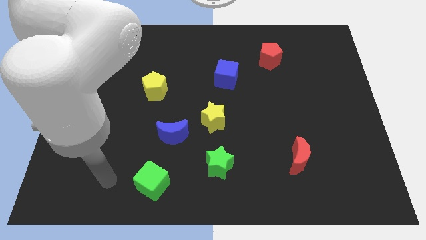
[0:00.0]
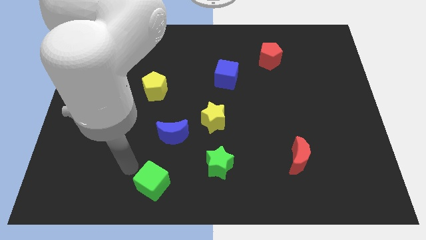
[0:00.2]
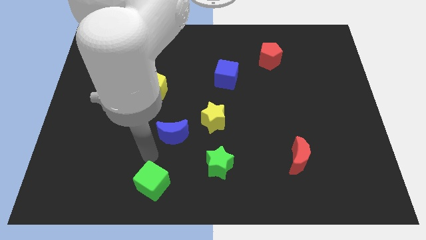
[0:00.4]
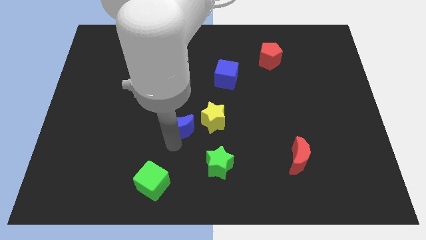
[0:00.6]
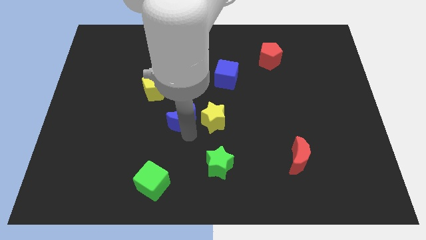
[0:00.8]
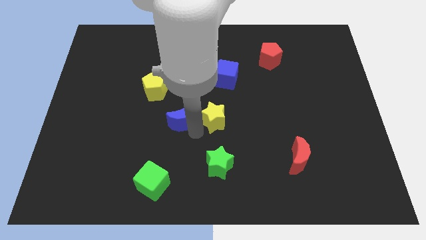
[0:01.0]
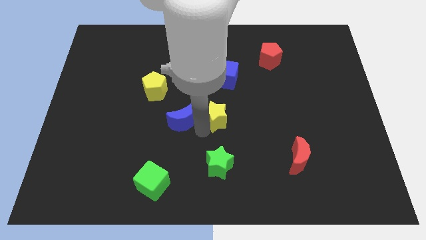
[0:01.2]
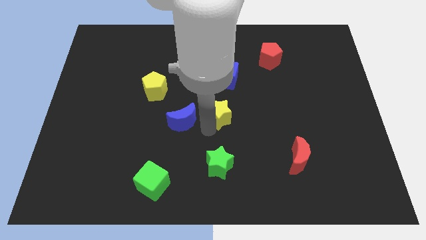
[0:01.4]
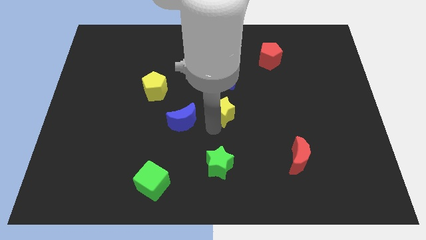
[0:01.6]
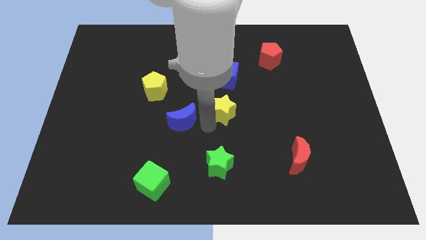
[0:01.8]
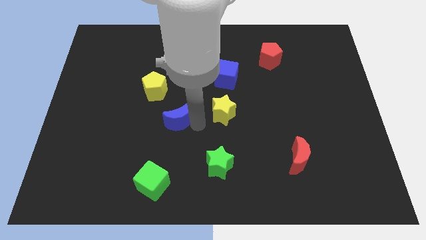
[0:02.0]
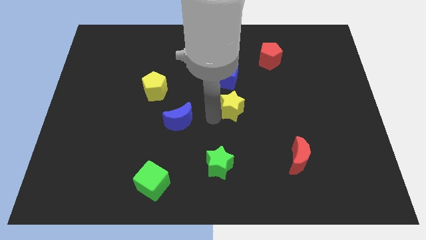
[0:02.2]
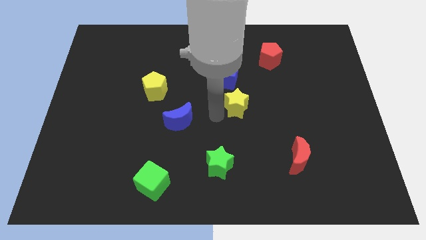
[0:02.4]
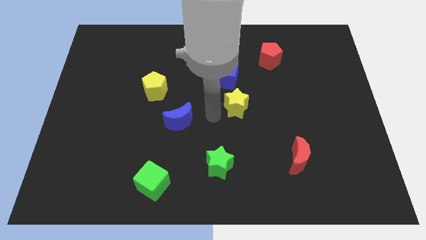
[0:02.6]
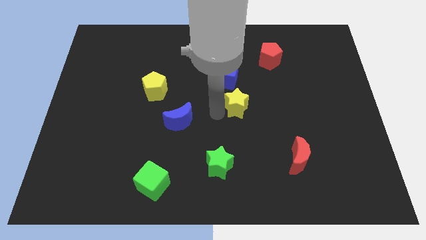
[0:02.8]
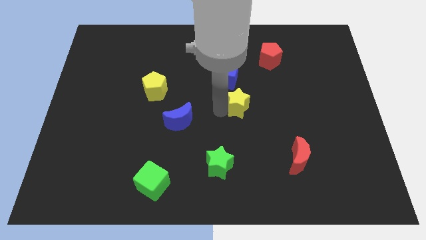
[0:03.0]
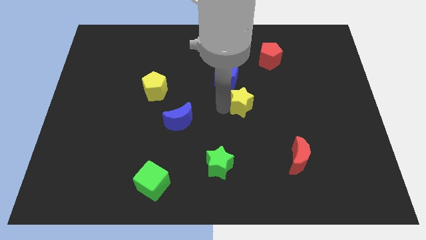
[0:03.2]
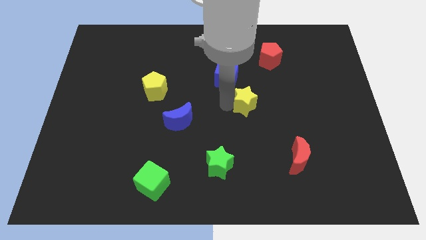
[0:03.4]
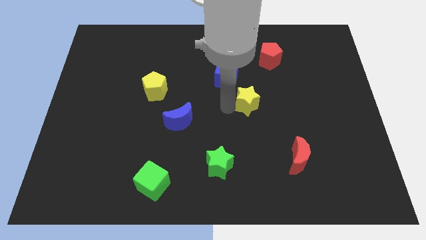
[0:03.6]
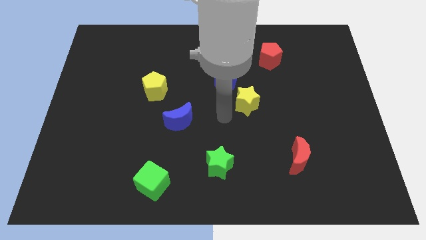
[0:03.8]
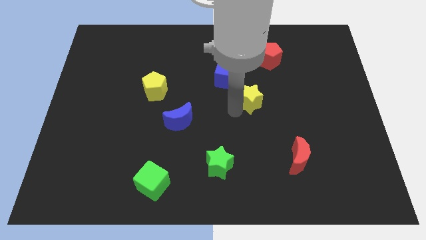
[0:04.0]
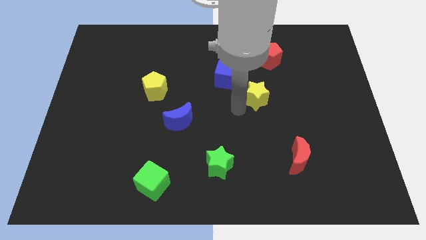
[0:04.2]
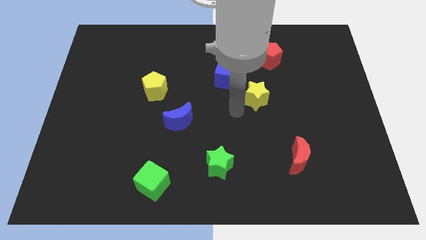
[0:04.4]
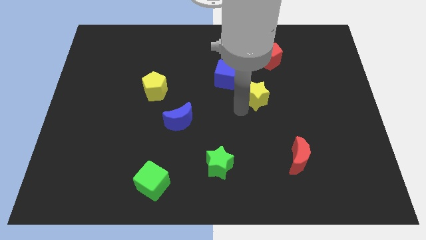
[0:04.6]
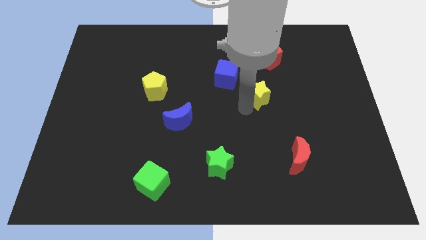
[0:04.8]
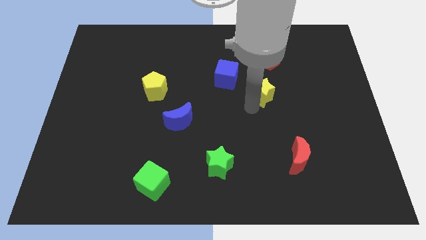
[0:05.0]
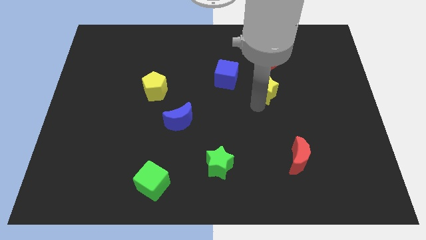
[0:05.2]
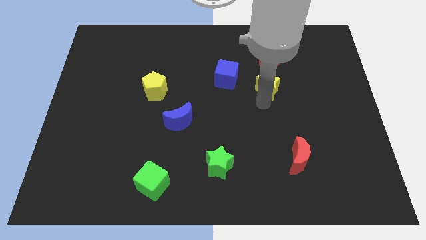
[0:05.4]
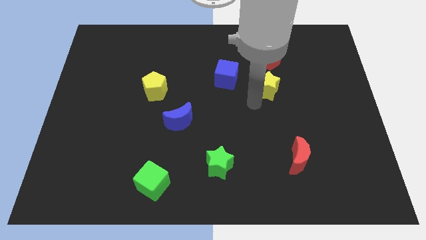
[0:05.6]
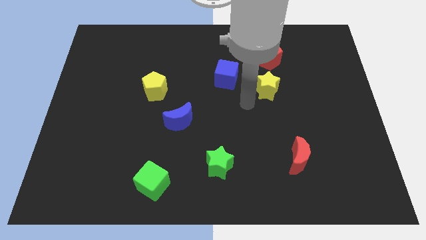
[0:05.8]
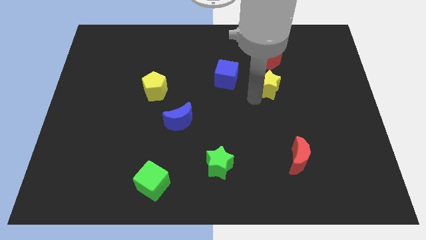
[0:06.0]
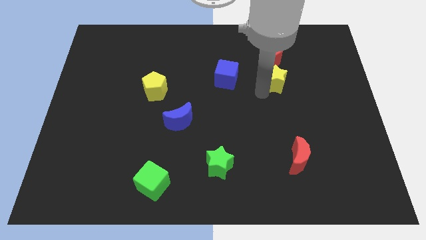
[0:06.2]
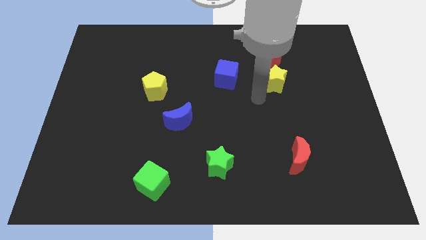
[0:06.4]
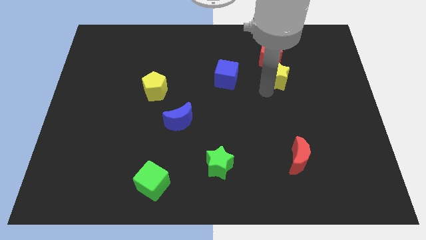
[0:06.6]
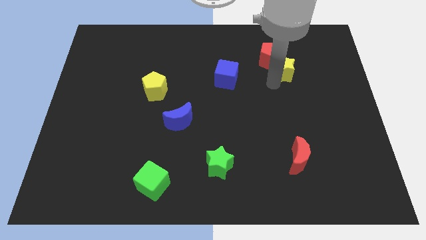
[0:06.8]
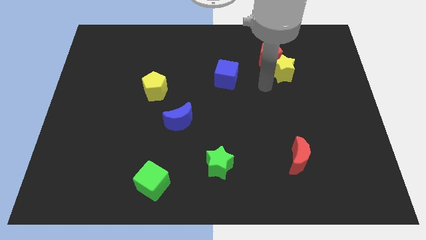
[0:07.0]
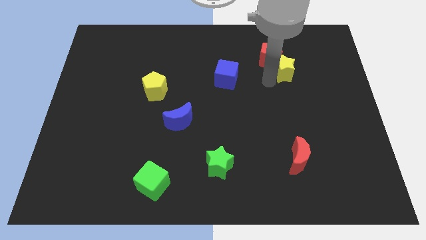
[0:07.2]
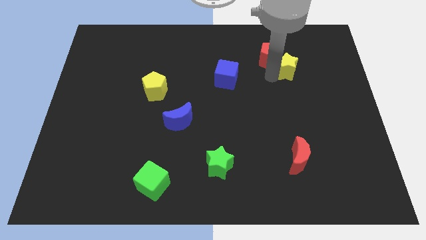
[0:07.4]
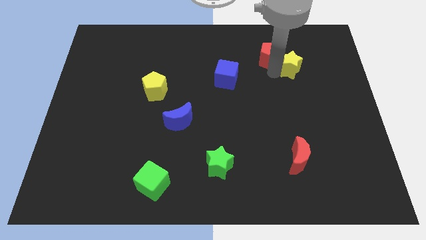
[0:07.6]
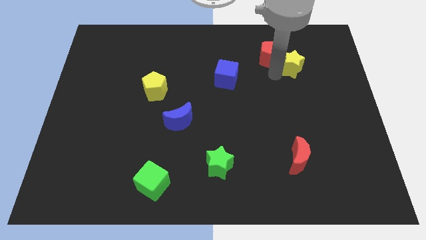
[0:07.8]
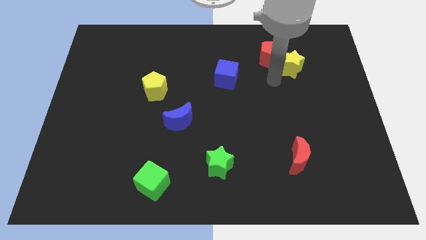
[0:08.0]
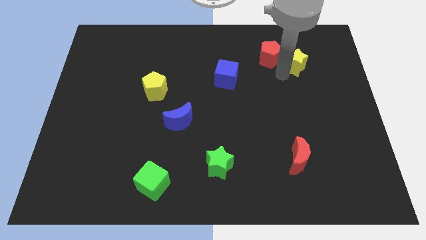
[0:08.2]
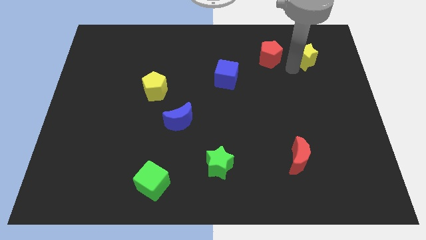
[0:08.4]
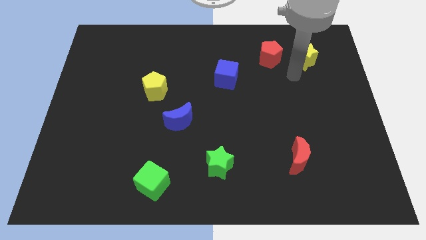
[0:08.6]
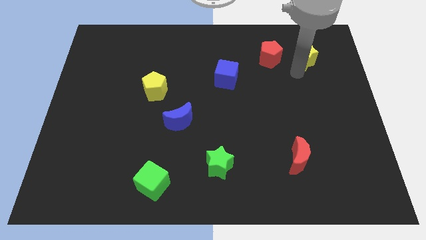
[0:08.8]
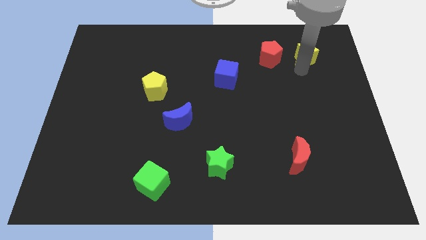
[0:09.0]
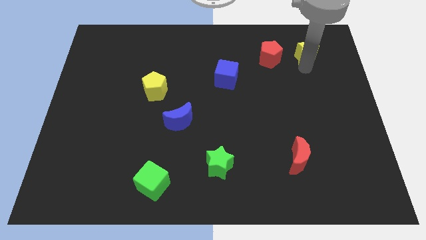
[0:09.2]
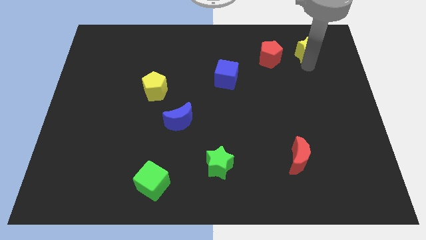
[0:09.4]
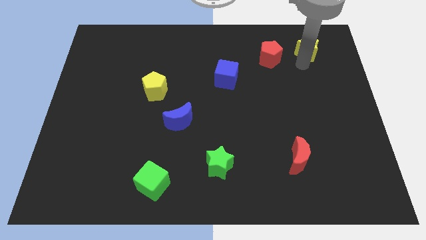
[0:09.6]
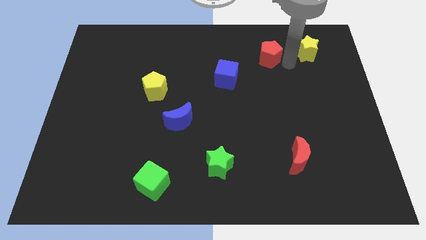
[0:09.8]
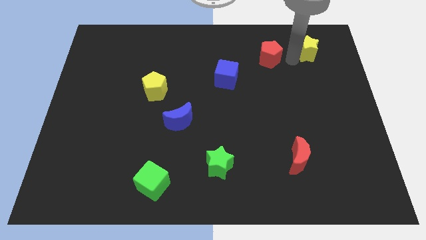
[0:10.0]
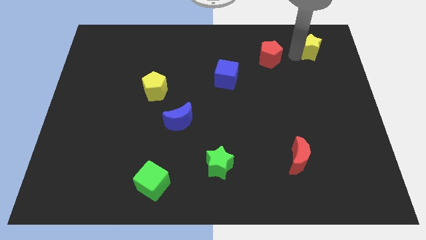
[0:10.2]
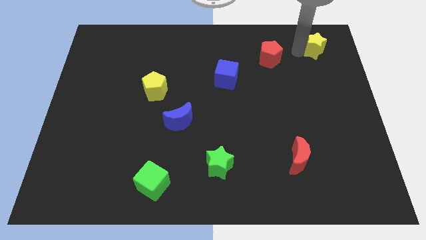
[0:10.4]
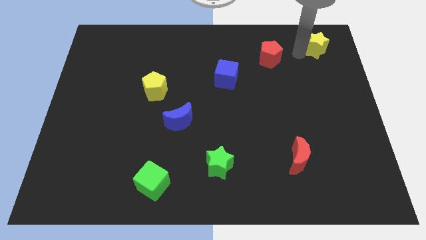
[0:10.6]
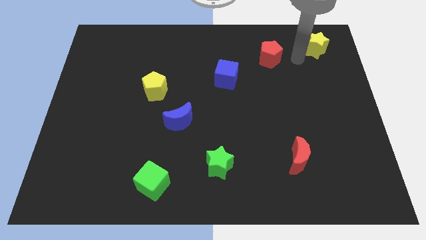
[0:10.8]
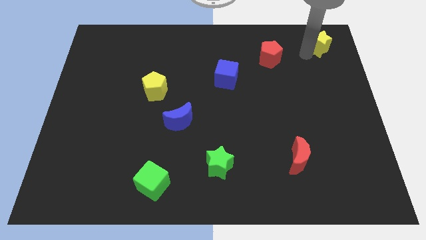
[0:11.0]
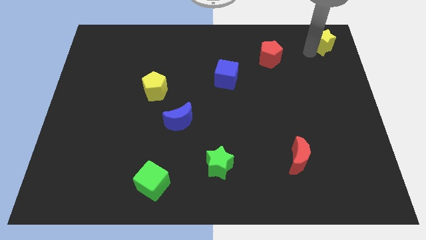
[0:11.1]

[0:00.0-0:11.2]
push the yellow star to the top right

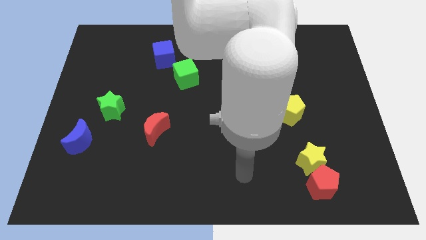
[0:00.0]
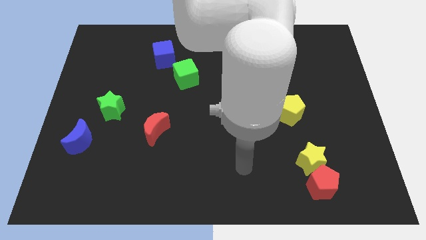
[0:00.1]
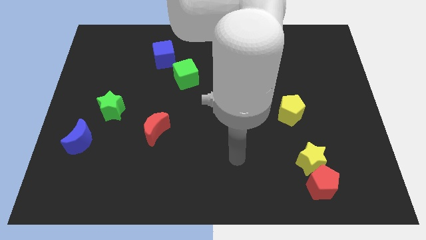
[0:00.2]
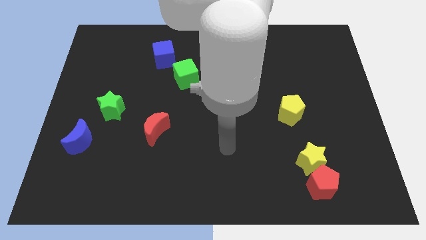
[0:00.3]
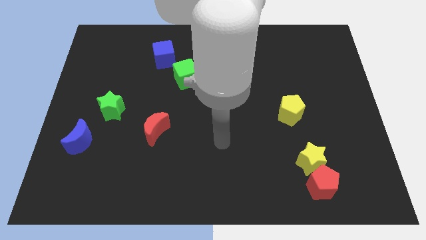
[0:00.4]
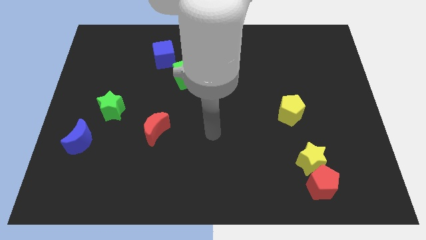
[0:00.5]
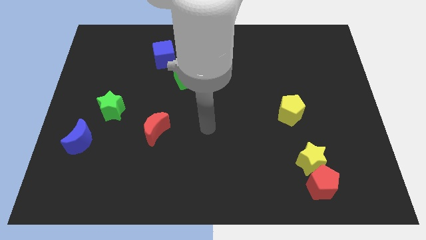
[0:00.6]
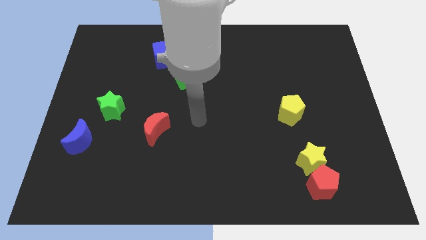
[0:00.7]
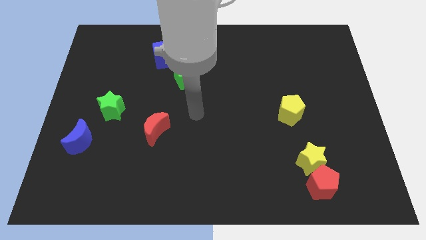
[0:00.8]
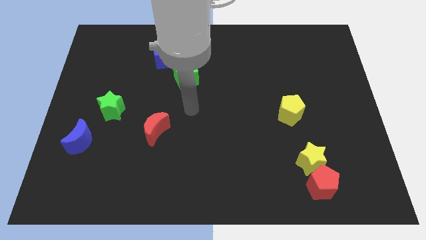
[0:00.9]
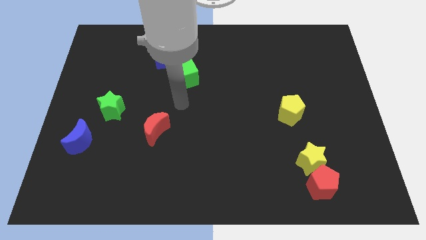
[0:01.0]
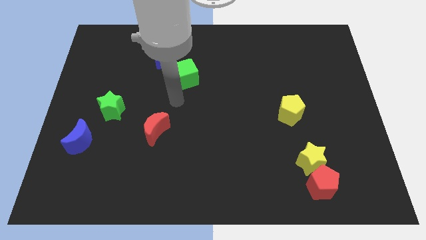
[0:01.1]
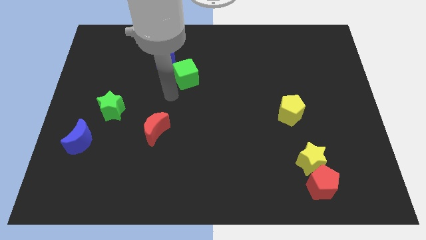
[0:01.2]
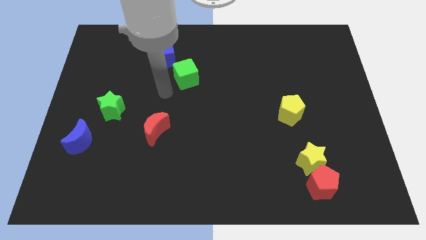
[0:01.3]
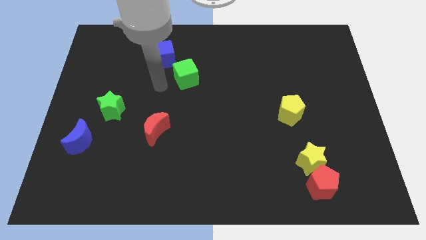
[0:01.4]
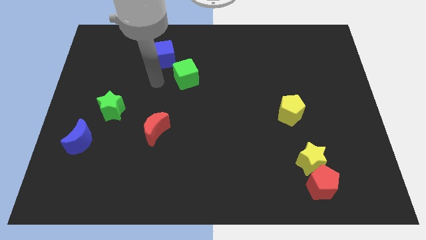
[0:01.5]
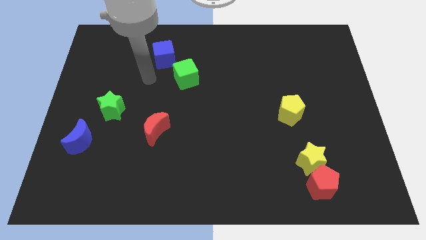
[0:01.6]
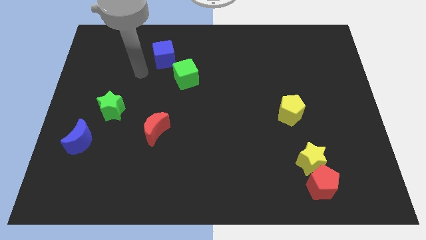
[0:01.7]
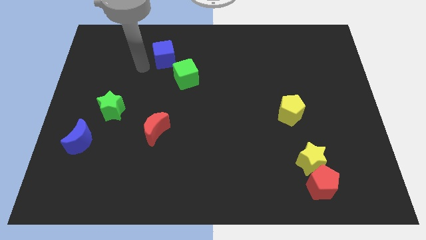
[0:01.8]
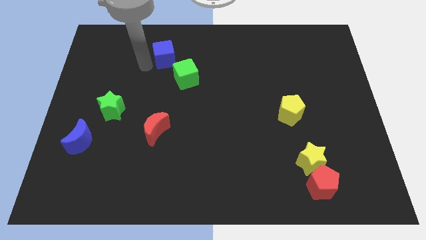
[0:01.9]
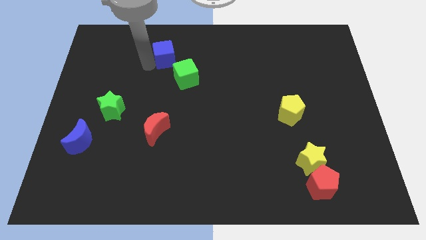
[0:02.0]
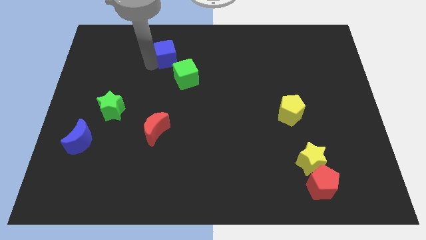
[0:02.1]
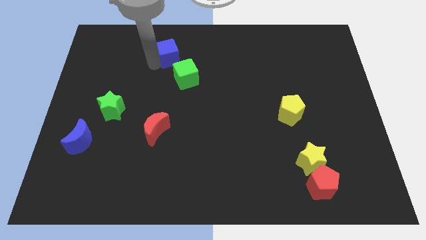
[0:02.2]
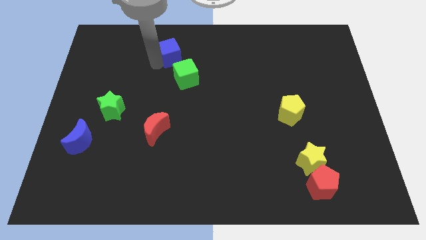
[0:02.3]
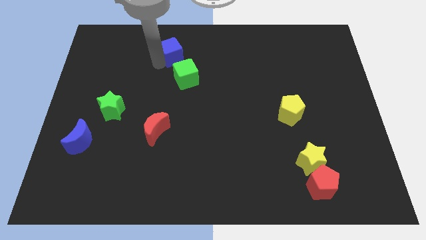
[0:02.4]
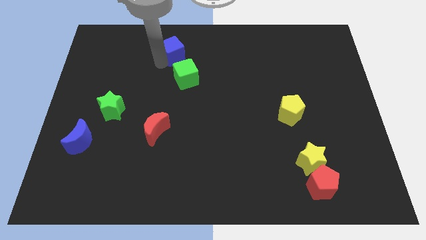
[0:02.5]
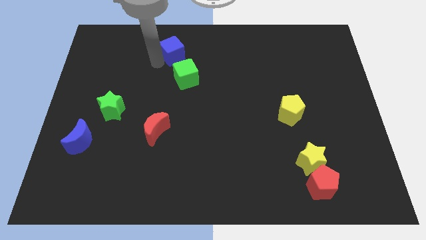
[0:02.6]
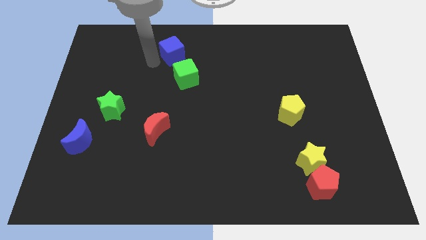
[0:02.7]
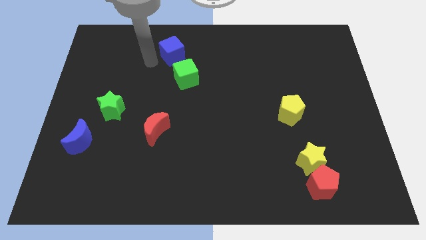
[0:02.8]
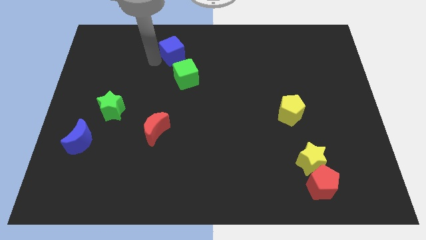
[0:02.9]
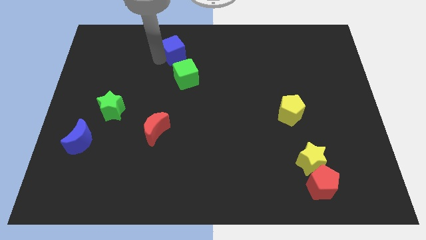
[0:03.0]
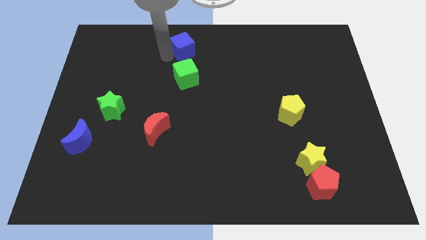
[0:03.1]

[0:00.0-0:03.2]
put the blue cube to the towards your base
